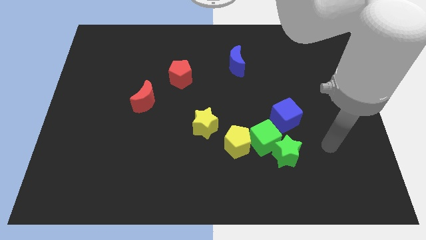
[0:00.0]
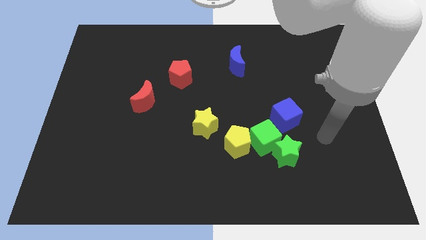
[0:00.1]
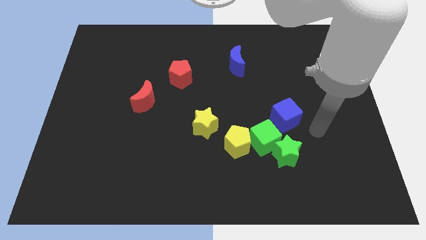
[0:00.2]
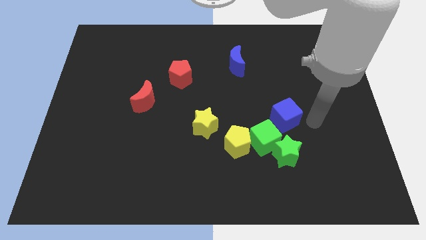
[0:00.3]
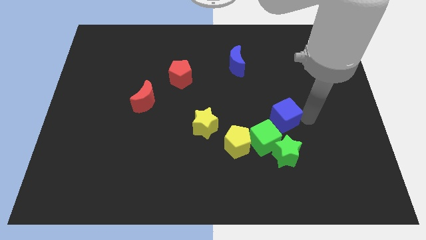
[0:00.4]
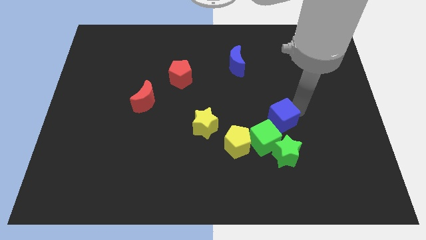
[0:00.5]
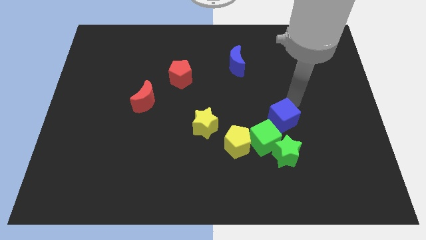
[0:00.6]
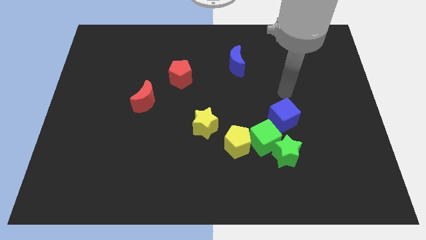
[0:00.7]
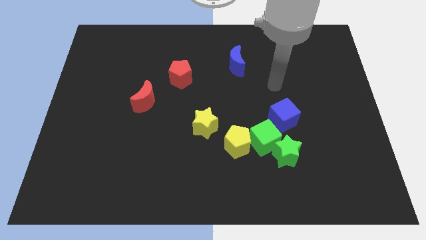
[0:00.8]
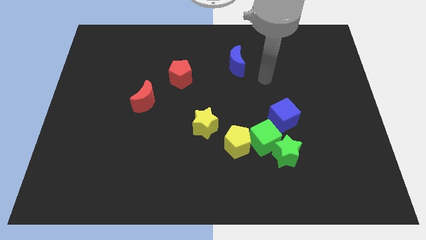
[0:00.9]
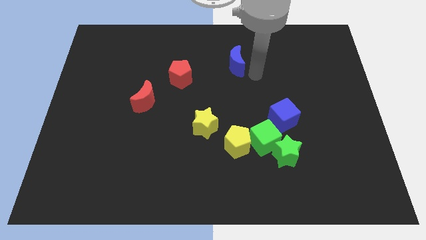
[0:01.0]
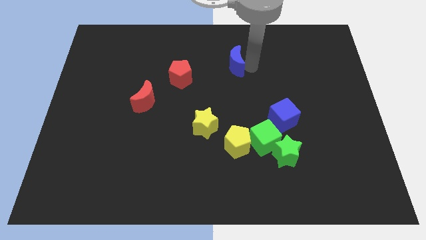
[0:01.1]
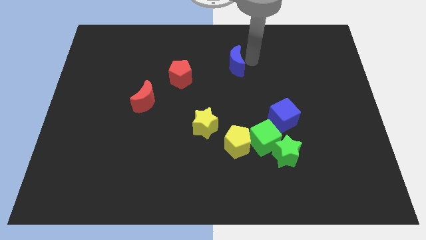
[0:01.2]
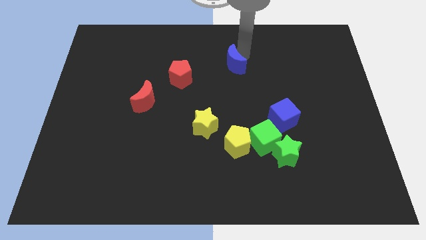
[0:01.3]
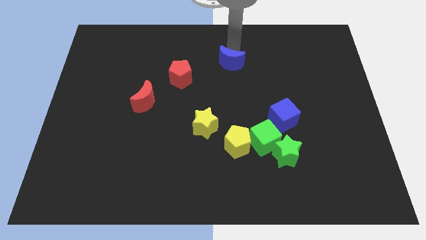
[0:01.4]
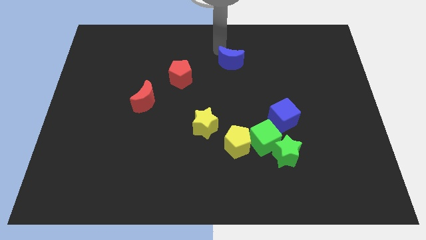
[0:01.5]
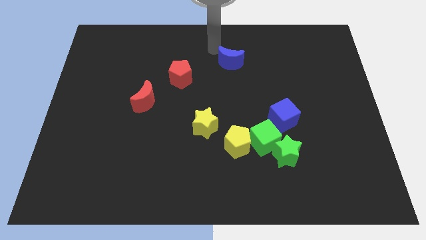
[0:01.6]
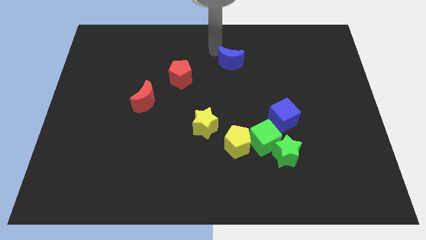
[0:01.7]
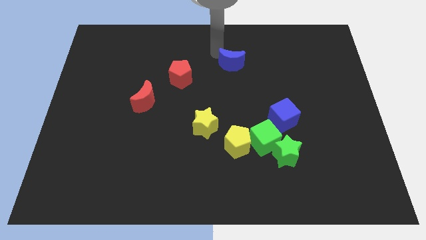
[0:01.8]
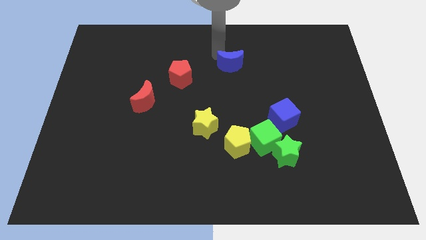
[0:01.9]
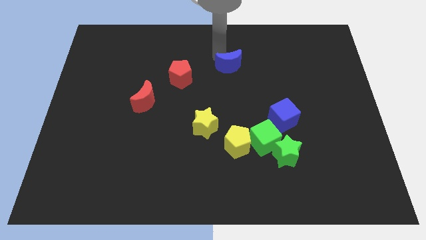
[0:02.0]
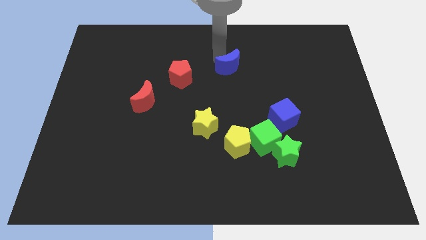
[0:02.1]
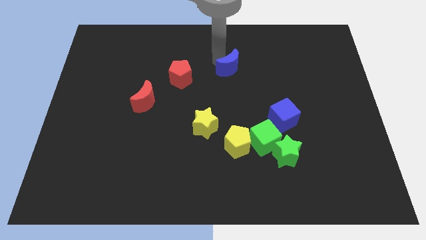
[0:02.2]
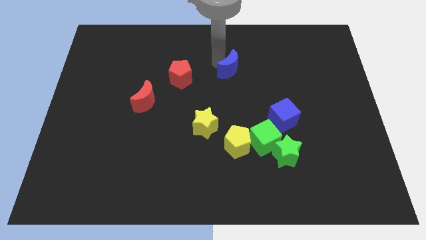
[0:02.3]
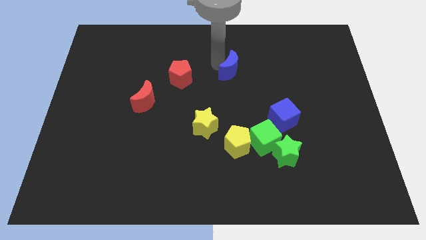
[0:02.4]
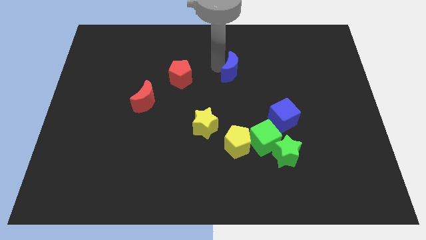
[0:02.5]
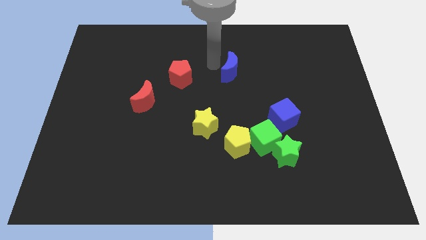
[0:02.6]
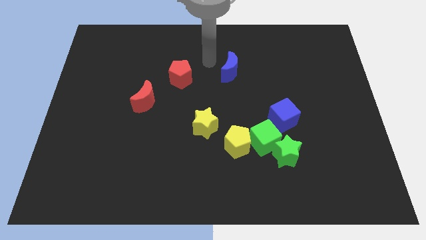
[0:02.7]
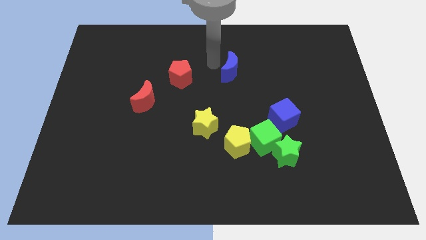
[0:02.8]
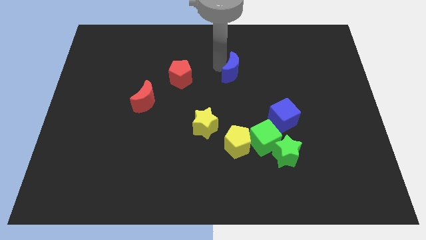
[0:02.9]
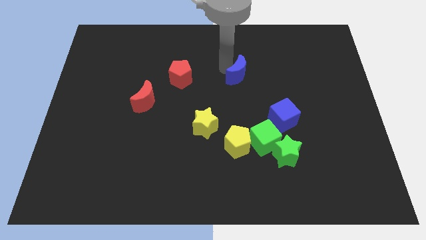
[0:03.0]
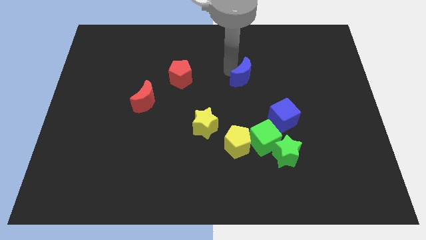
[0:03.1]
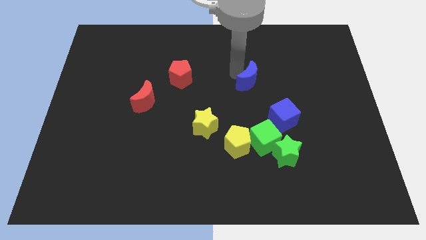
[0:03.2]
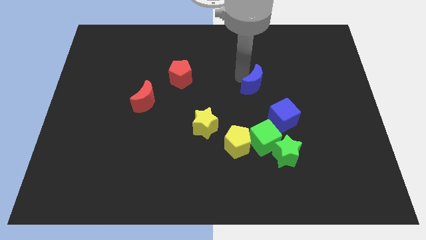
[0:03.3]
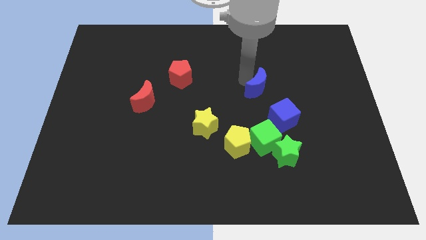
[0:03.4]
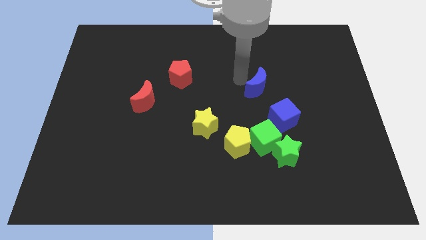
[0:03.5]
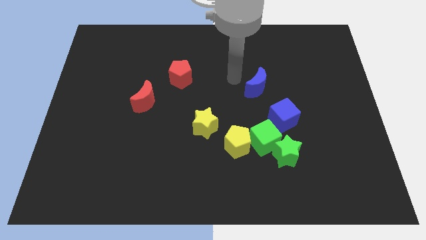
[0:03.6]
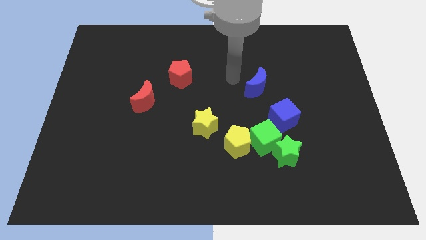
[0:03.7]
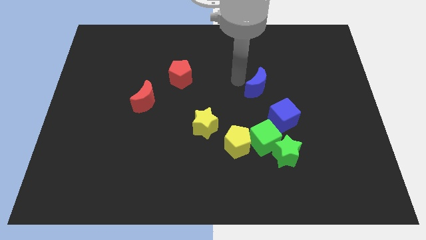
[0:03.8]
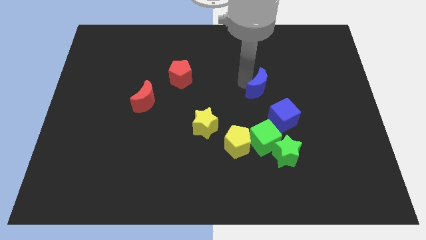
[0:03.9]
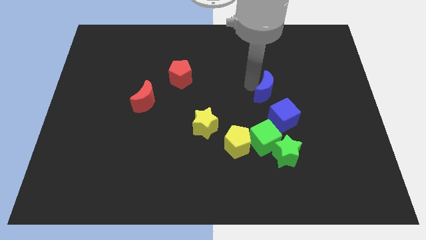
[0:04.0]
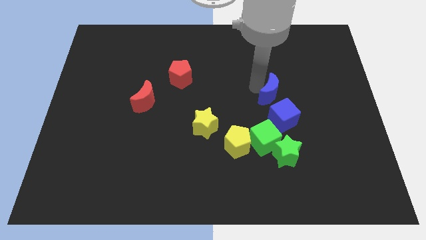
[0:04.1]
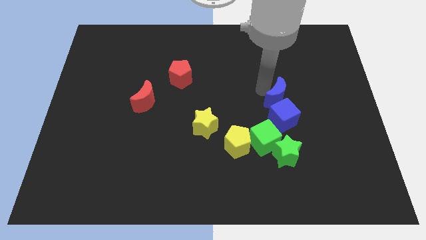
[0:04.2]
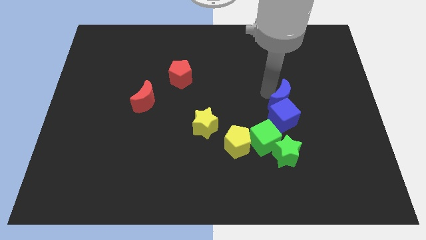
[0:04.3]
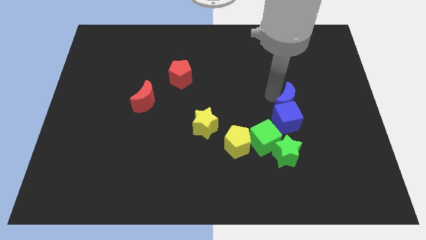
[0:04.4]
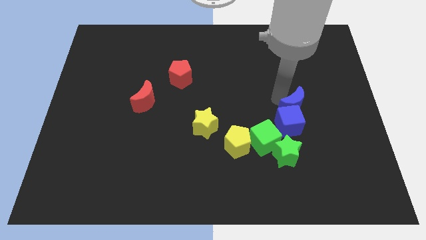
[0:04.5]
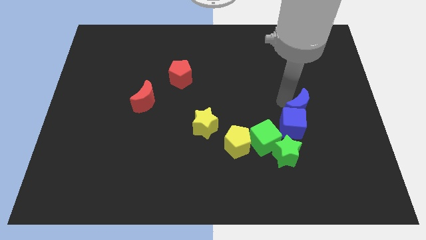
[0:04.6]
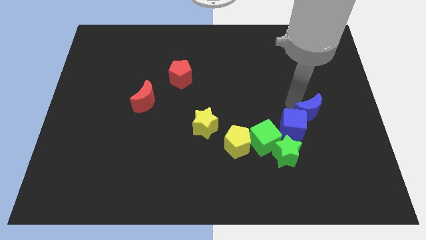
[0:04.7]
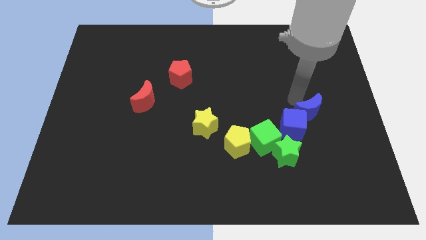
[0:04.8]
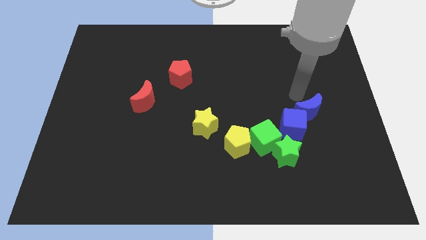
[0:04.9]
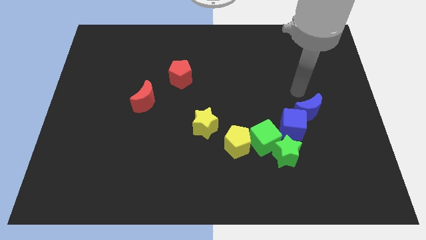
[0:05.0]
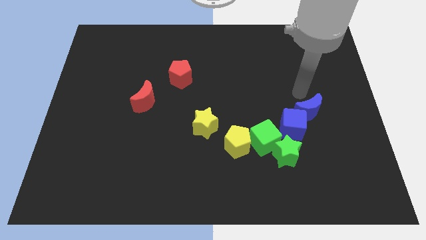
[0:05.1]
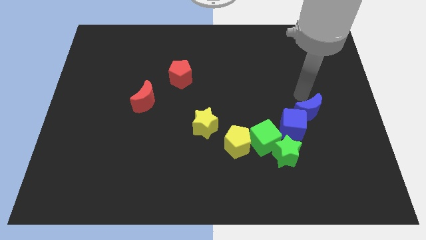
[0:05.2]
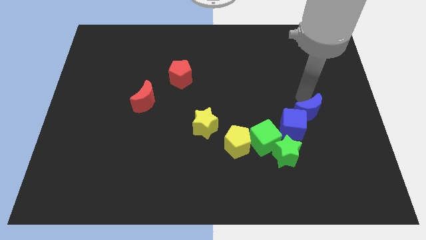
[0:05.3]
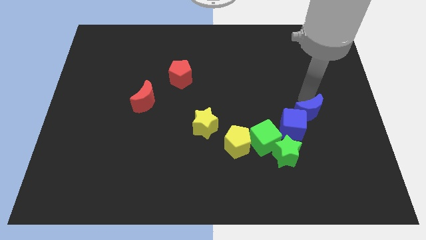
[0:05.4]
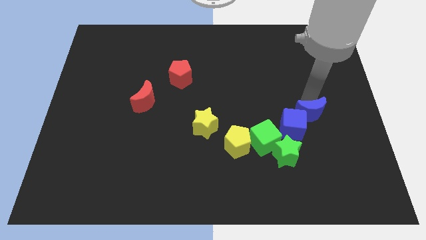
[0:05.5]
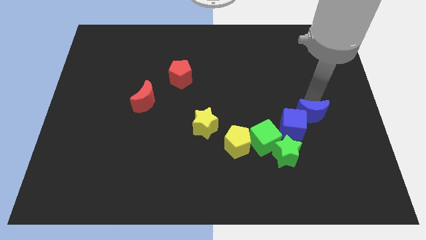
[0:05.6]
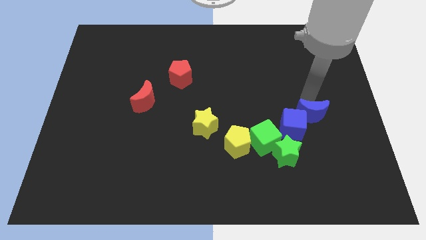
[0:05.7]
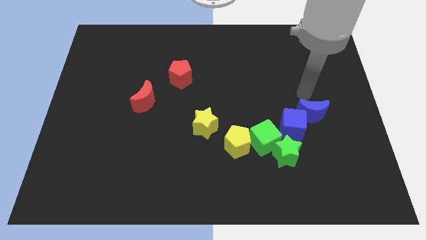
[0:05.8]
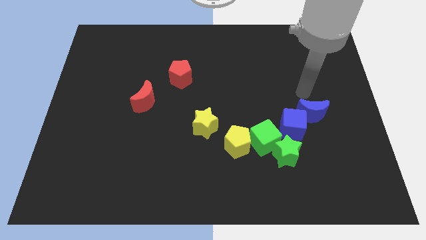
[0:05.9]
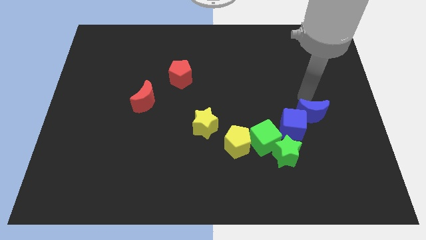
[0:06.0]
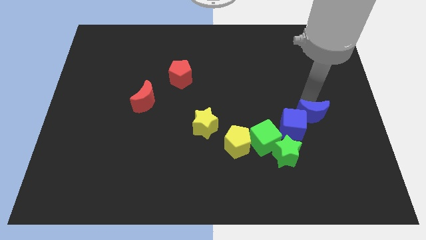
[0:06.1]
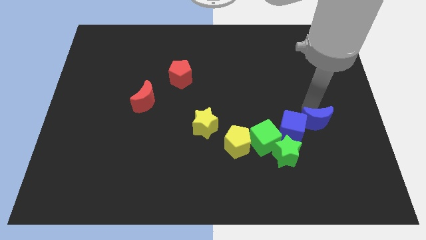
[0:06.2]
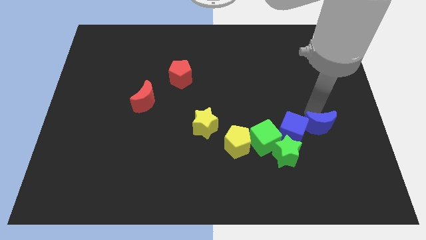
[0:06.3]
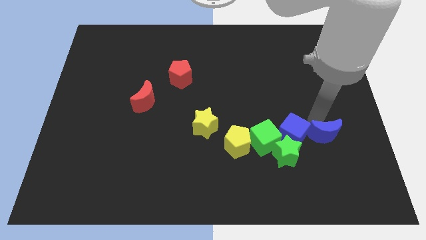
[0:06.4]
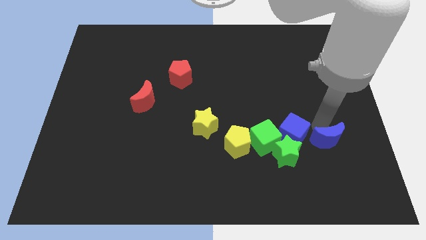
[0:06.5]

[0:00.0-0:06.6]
move the blue moon just right of the green star

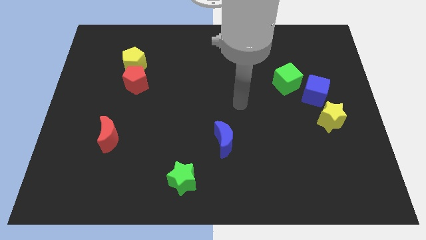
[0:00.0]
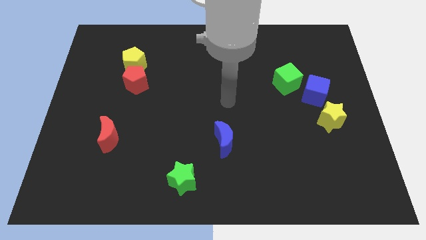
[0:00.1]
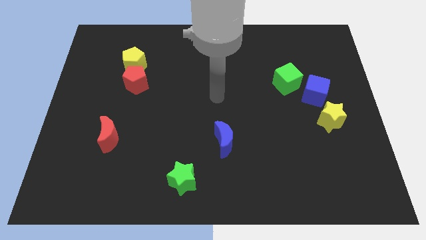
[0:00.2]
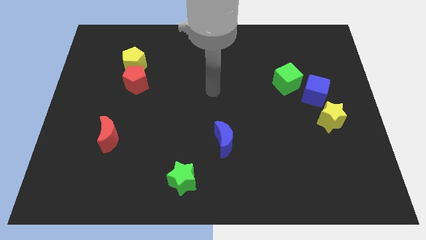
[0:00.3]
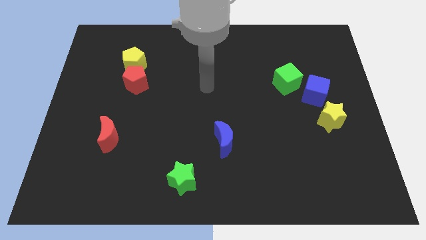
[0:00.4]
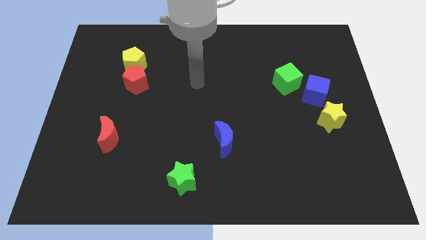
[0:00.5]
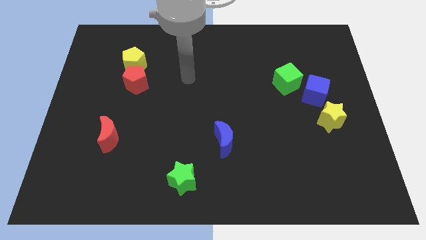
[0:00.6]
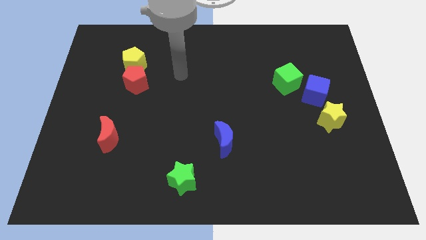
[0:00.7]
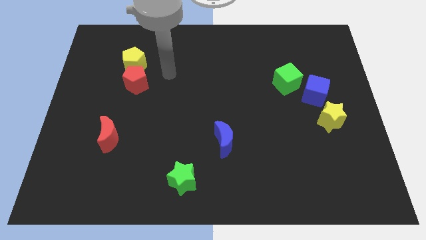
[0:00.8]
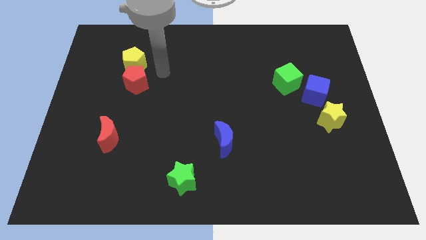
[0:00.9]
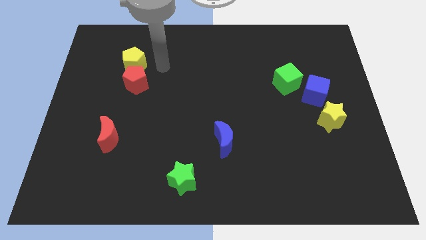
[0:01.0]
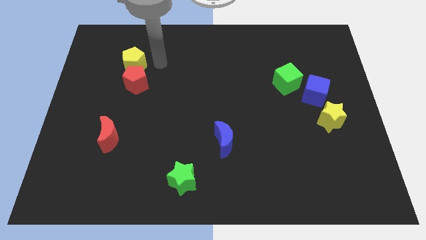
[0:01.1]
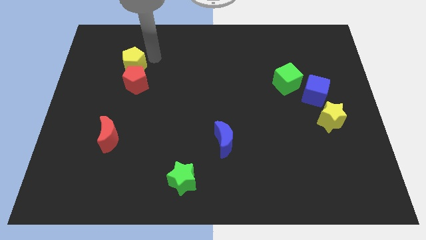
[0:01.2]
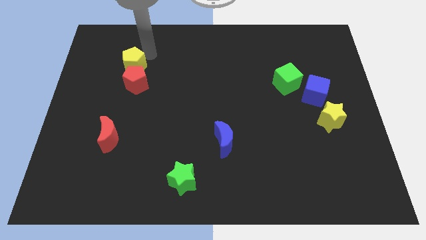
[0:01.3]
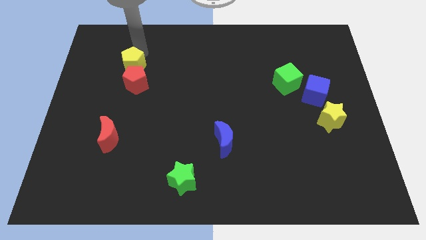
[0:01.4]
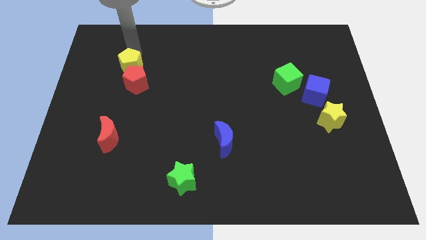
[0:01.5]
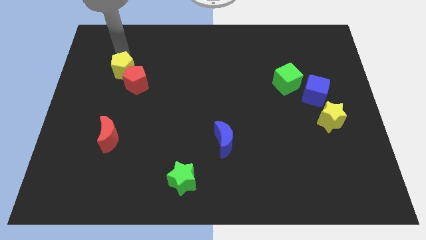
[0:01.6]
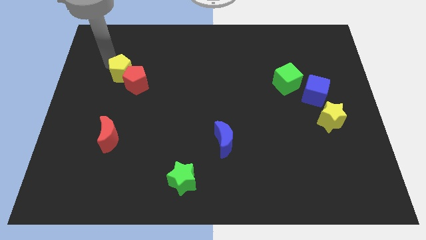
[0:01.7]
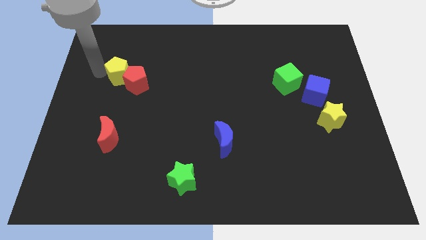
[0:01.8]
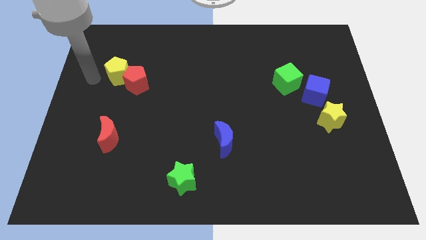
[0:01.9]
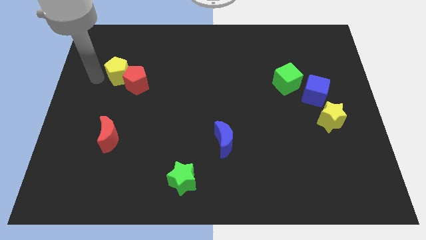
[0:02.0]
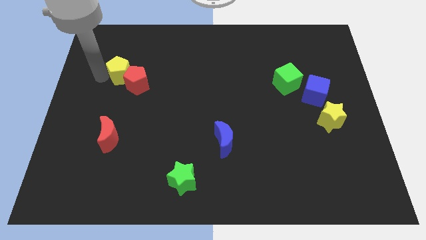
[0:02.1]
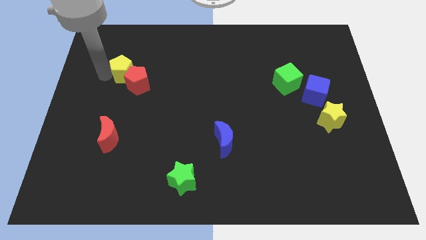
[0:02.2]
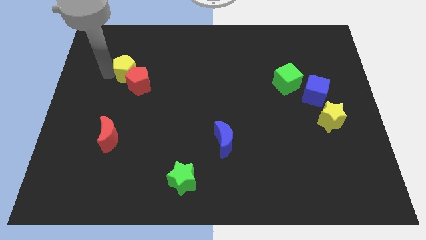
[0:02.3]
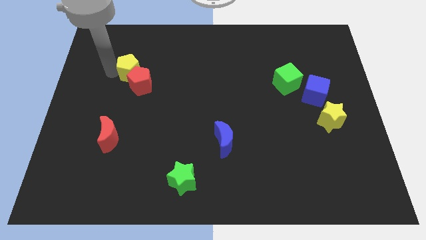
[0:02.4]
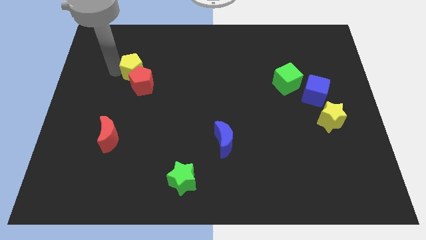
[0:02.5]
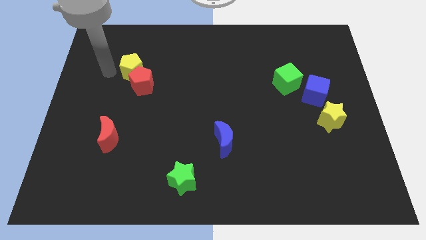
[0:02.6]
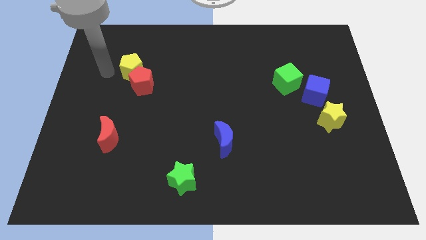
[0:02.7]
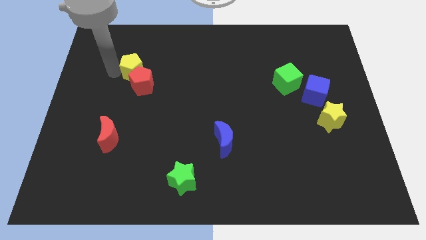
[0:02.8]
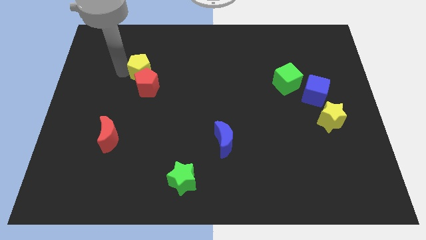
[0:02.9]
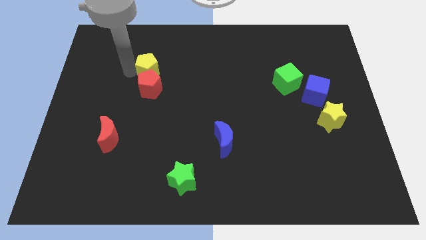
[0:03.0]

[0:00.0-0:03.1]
move the yellow pentagon to the top right side of the red pentagon
